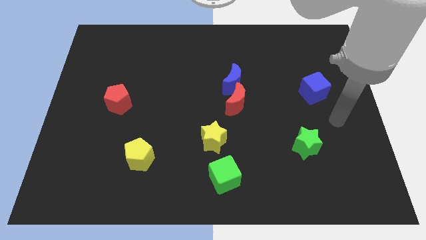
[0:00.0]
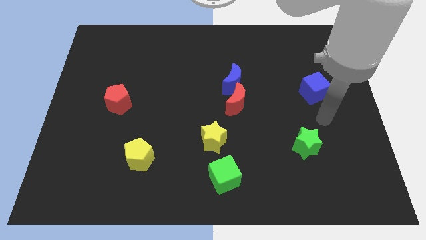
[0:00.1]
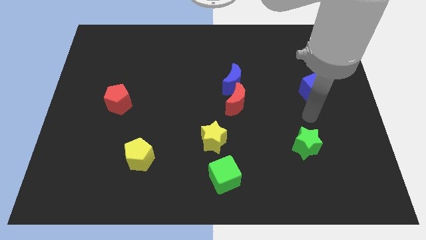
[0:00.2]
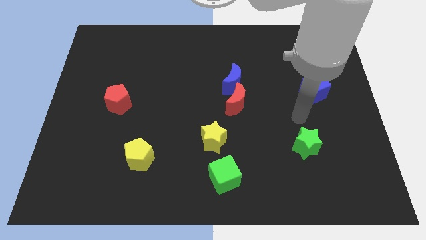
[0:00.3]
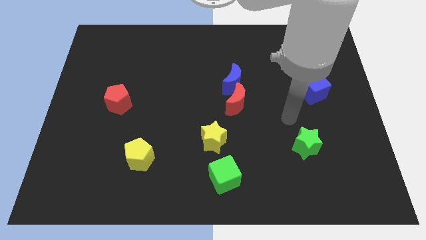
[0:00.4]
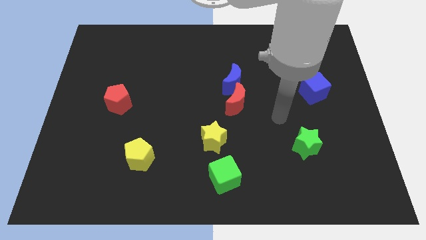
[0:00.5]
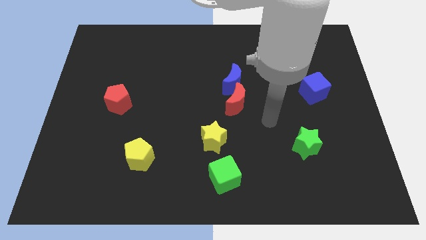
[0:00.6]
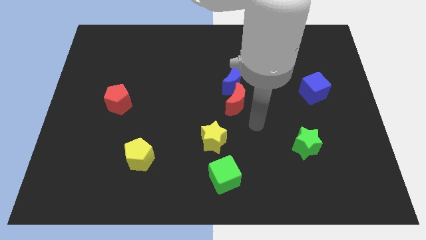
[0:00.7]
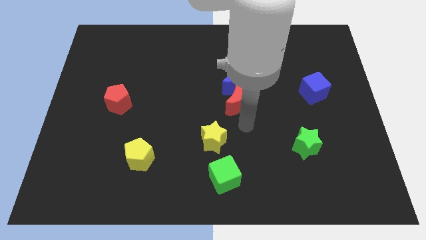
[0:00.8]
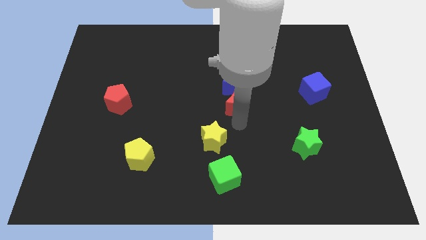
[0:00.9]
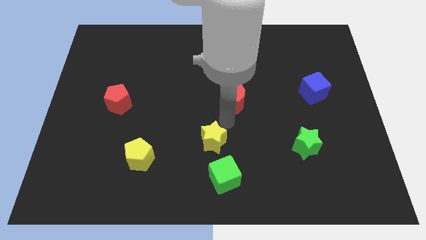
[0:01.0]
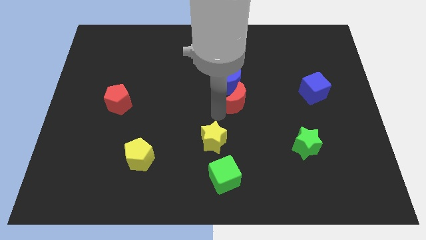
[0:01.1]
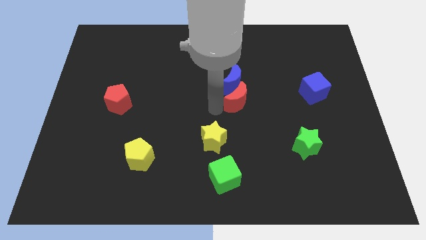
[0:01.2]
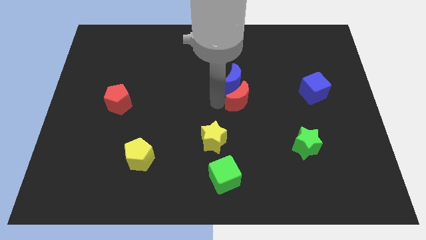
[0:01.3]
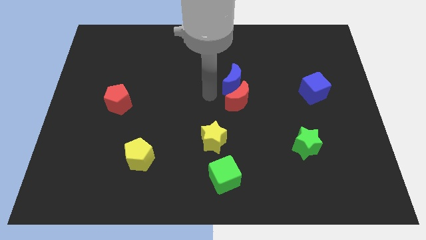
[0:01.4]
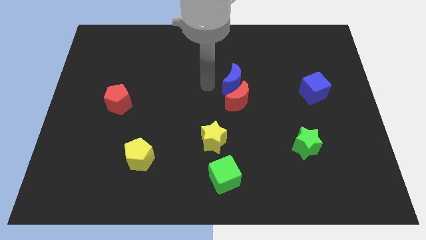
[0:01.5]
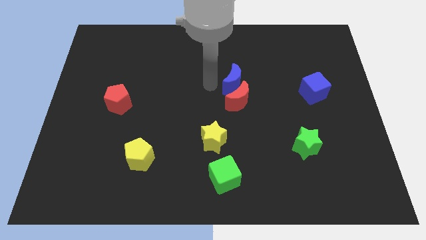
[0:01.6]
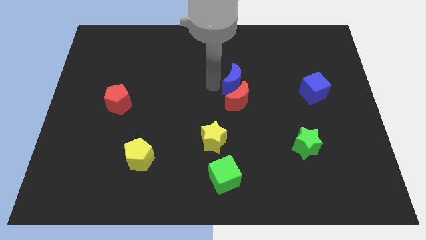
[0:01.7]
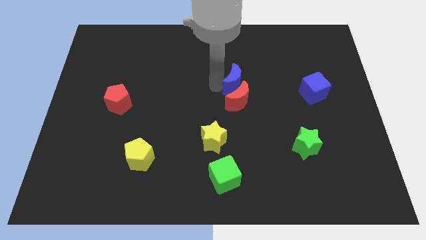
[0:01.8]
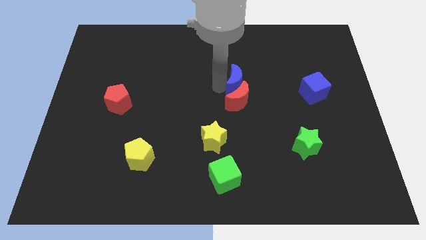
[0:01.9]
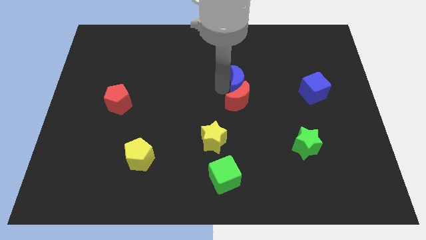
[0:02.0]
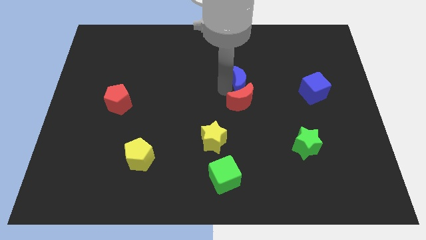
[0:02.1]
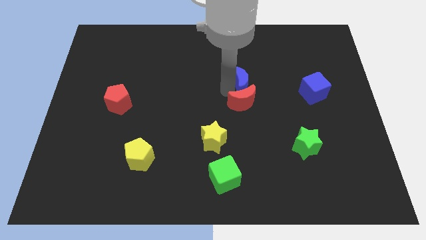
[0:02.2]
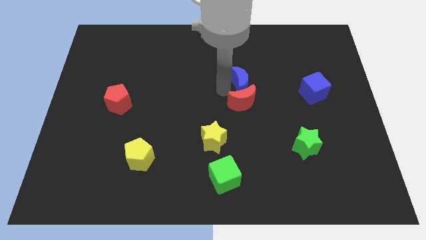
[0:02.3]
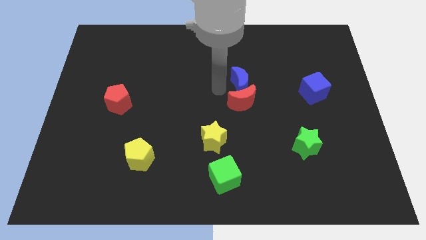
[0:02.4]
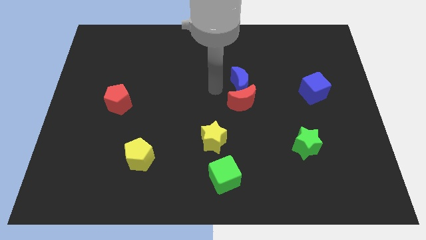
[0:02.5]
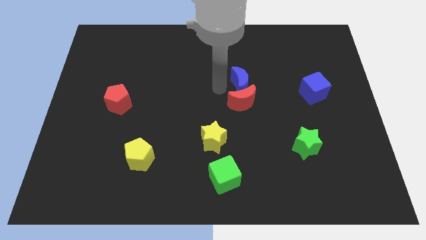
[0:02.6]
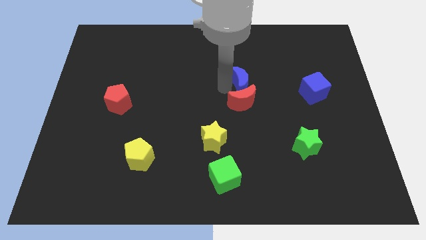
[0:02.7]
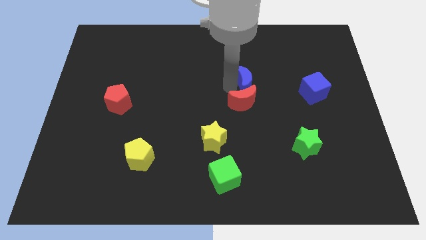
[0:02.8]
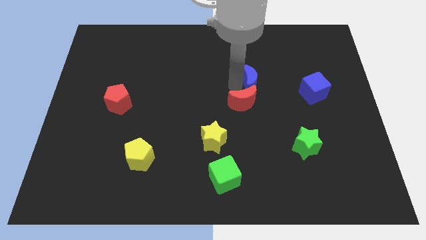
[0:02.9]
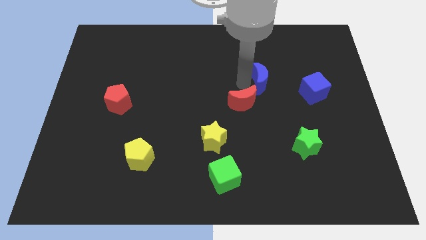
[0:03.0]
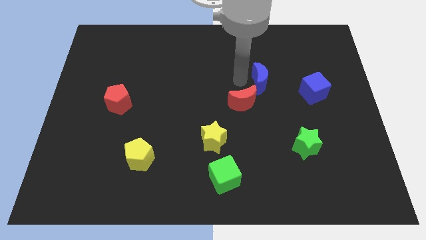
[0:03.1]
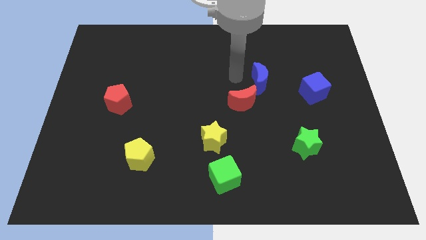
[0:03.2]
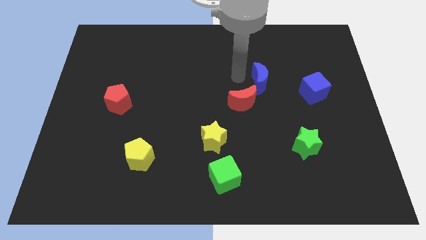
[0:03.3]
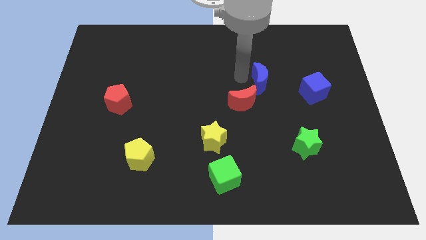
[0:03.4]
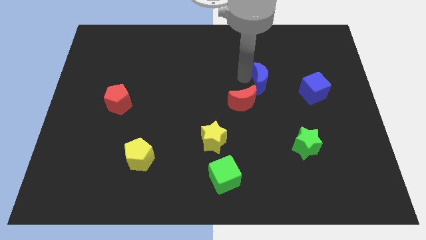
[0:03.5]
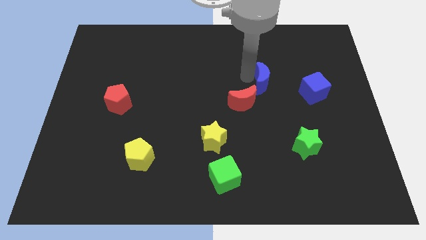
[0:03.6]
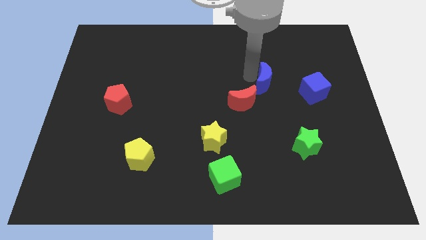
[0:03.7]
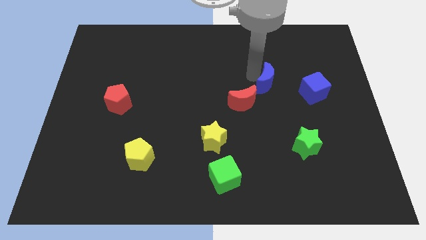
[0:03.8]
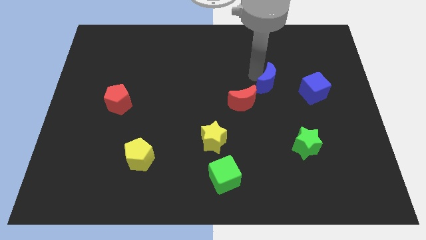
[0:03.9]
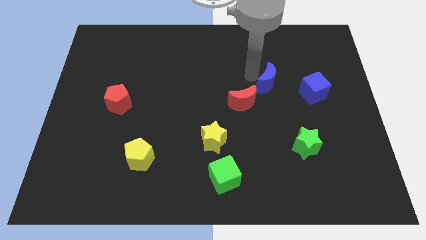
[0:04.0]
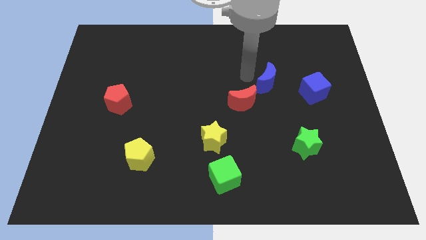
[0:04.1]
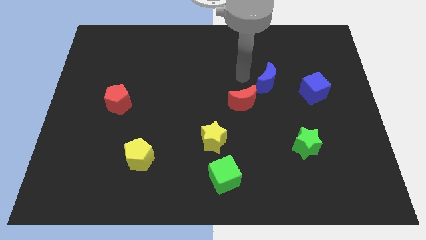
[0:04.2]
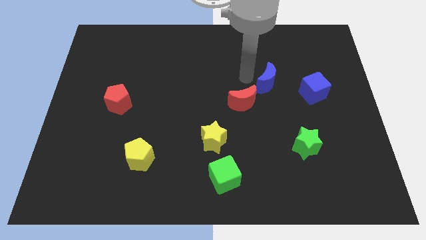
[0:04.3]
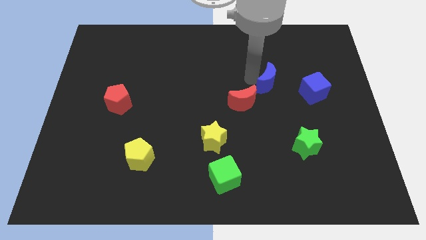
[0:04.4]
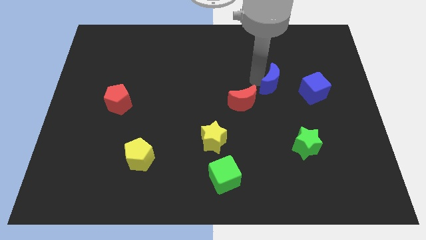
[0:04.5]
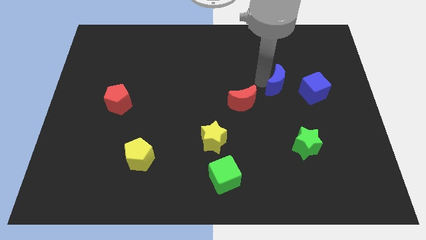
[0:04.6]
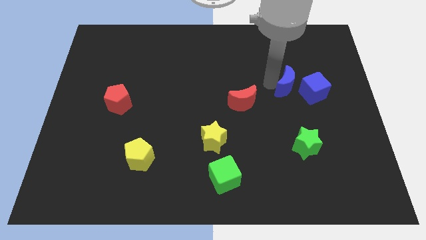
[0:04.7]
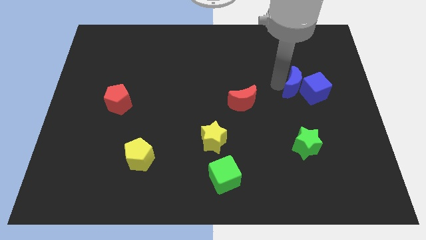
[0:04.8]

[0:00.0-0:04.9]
move the blue moon next to the blue cube

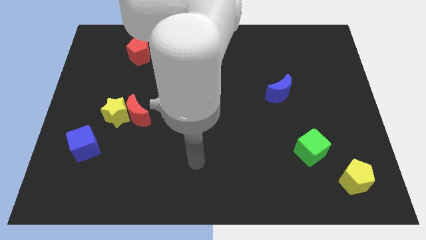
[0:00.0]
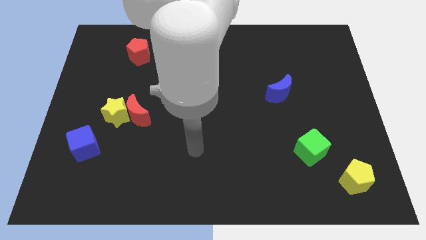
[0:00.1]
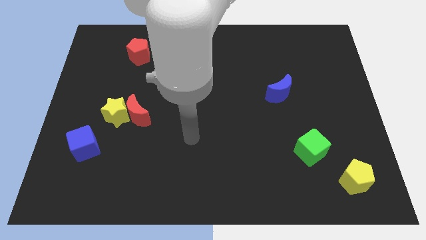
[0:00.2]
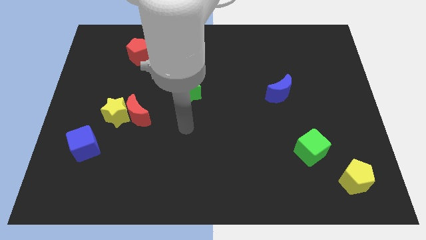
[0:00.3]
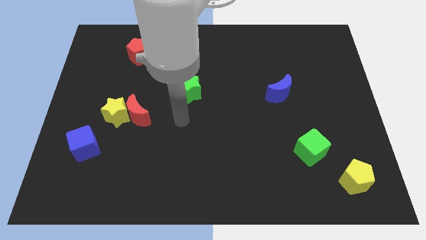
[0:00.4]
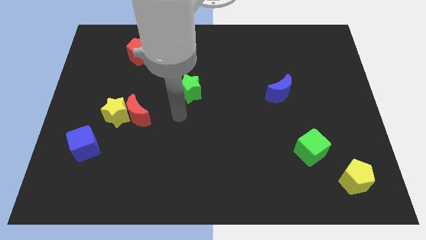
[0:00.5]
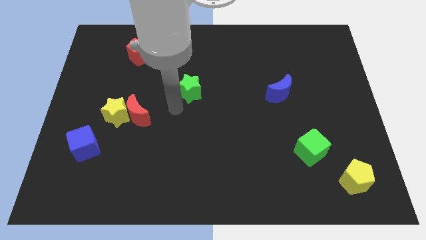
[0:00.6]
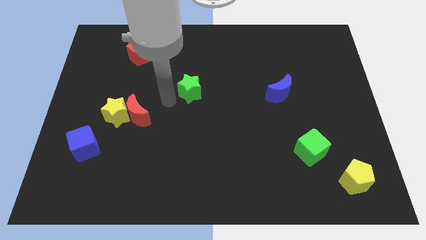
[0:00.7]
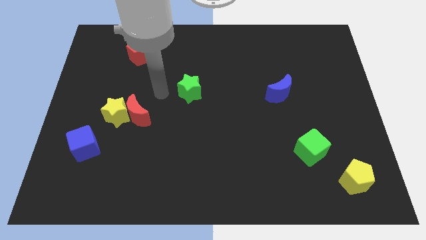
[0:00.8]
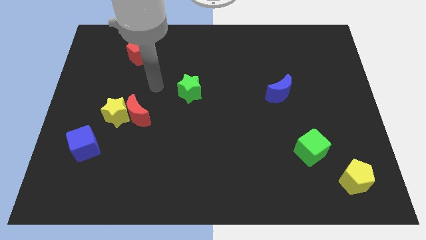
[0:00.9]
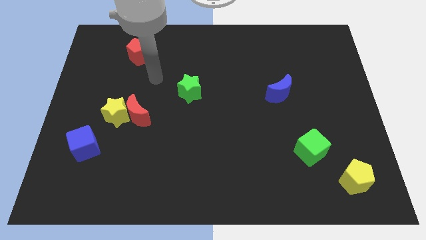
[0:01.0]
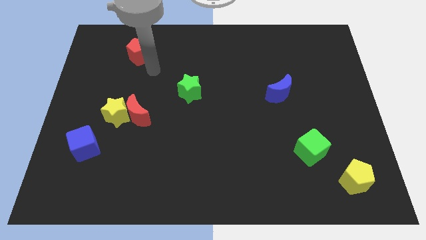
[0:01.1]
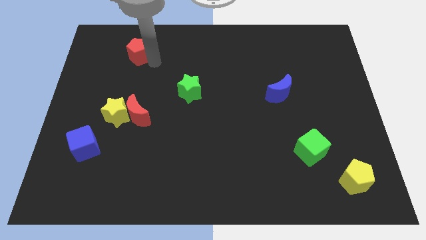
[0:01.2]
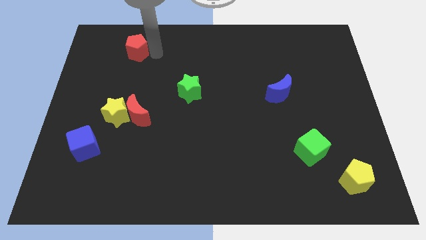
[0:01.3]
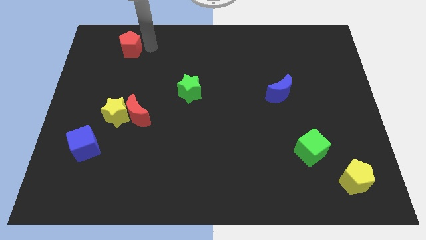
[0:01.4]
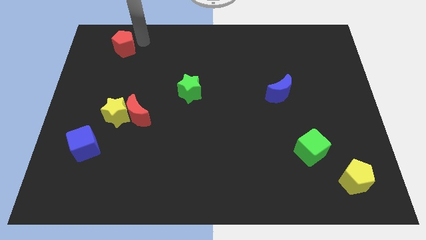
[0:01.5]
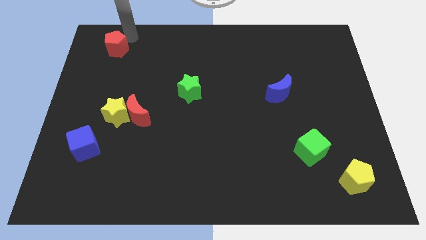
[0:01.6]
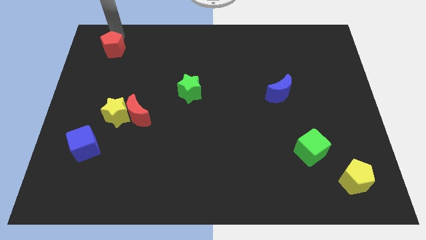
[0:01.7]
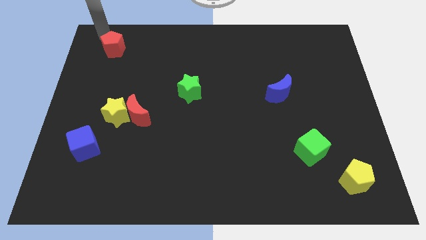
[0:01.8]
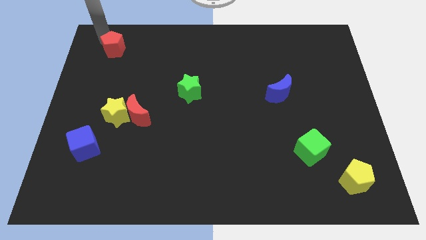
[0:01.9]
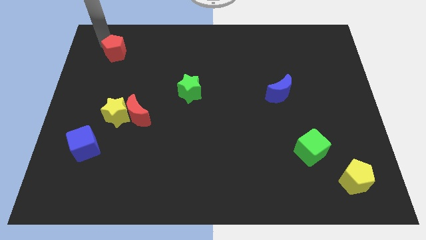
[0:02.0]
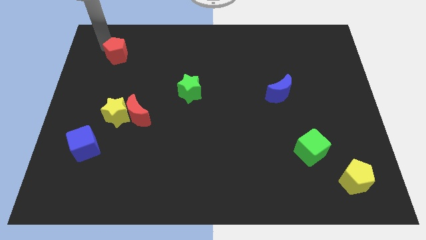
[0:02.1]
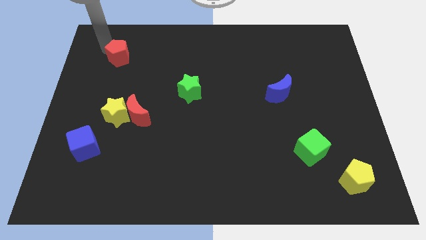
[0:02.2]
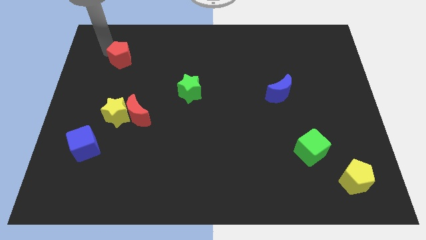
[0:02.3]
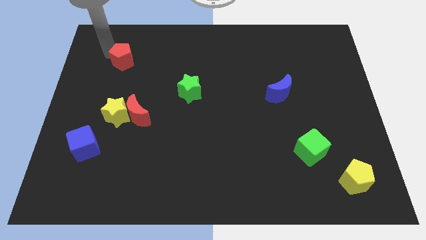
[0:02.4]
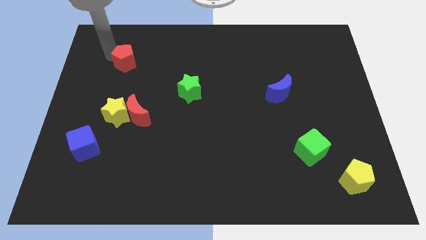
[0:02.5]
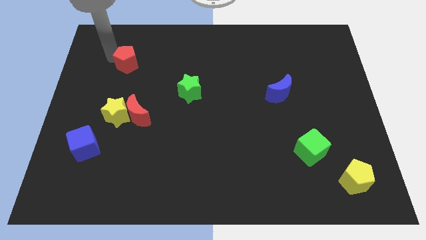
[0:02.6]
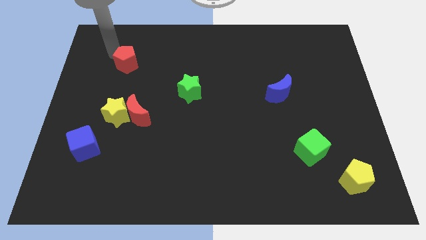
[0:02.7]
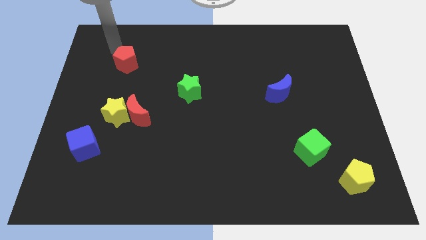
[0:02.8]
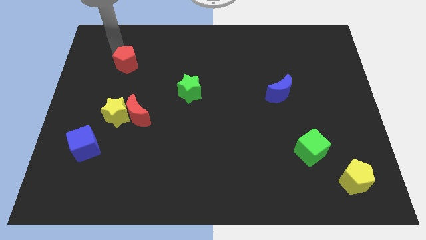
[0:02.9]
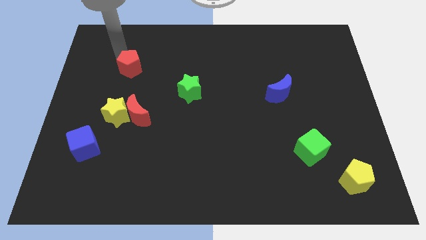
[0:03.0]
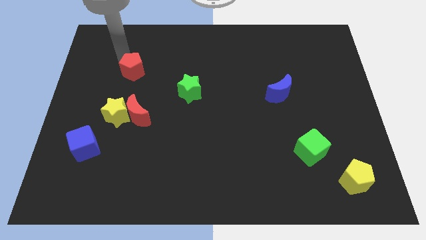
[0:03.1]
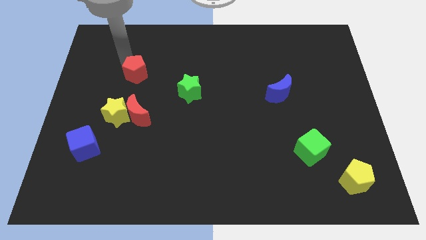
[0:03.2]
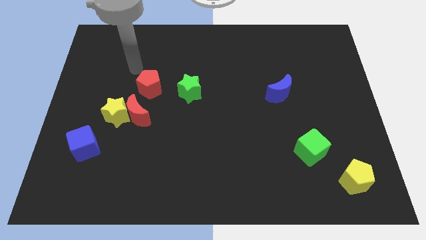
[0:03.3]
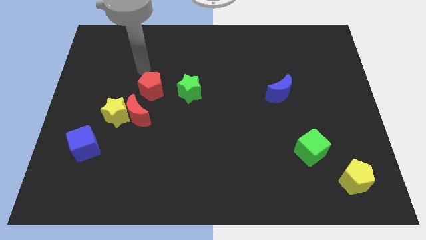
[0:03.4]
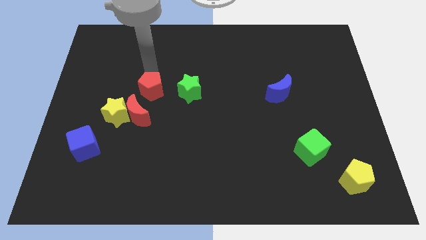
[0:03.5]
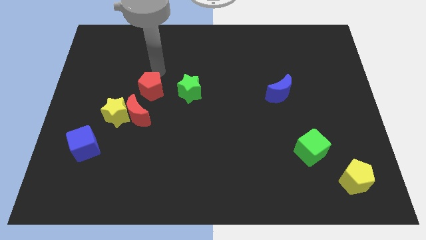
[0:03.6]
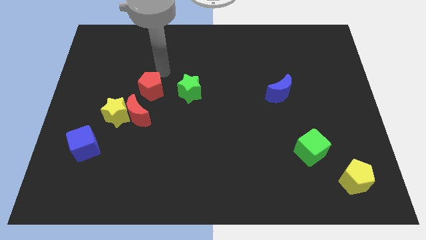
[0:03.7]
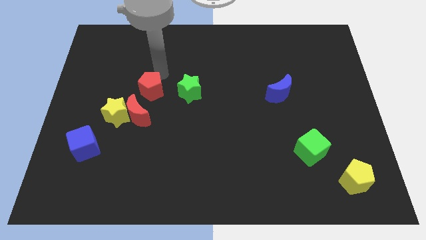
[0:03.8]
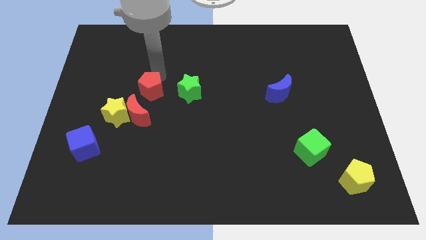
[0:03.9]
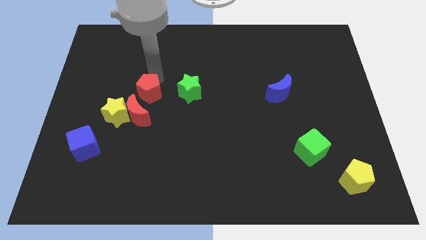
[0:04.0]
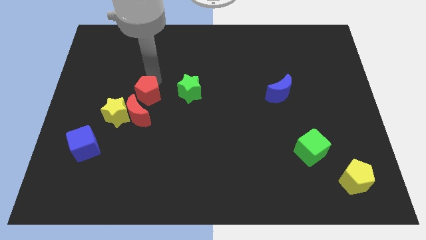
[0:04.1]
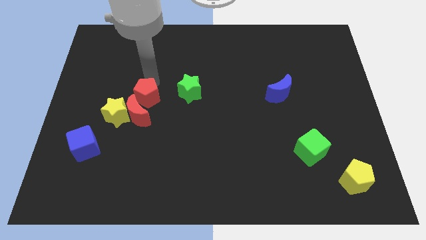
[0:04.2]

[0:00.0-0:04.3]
slide the red pentagon towards the red moon
